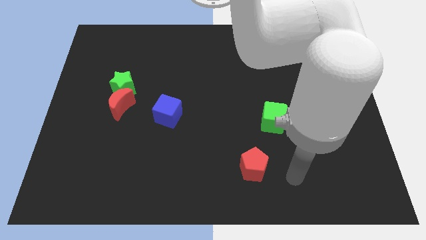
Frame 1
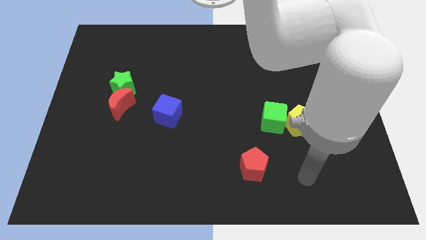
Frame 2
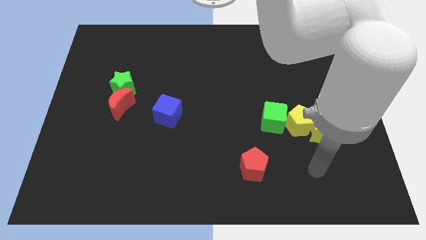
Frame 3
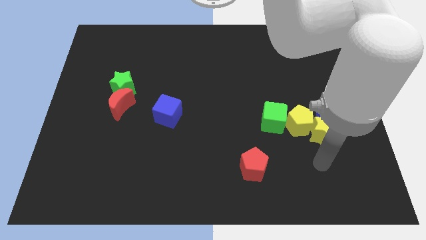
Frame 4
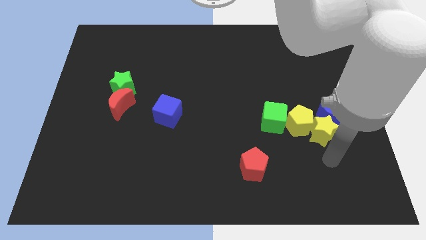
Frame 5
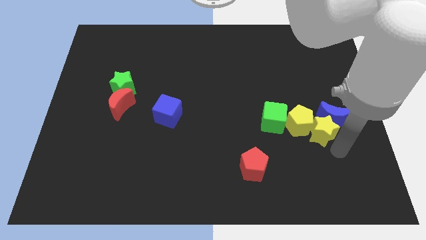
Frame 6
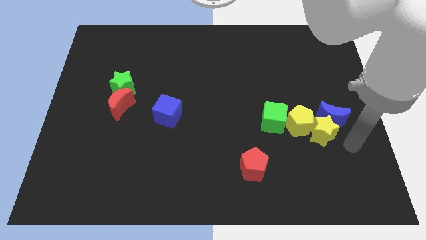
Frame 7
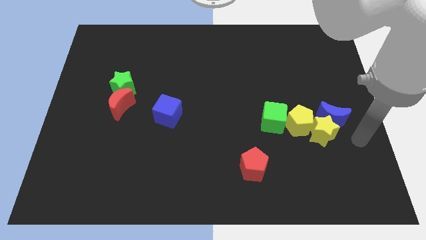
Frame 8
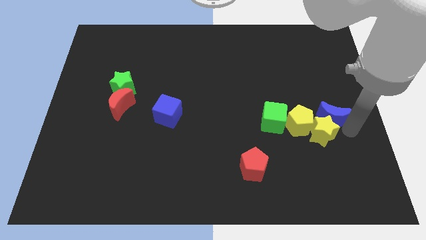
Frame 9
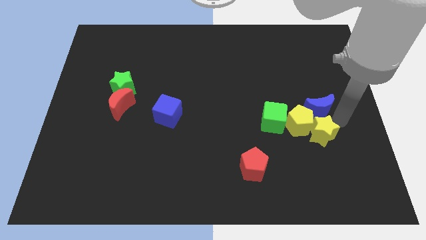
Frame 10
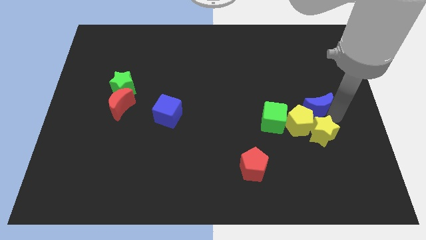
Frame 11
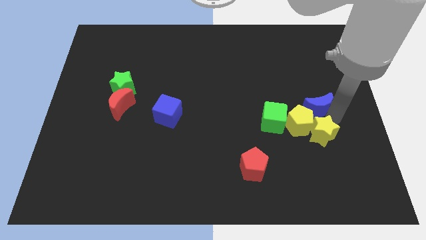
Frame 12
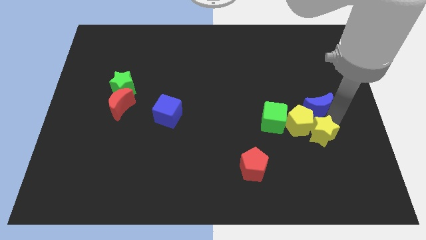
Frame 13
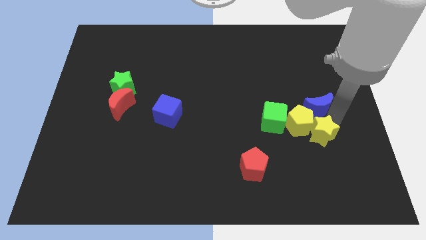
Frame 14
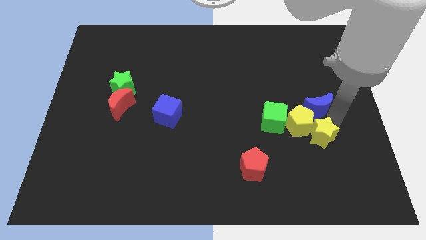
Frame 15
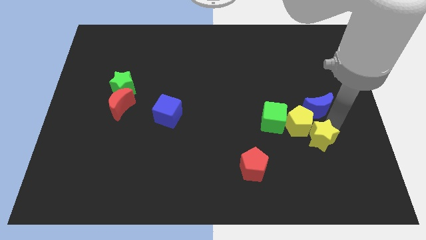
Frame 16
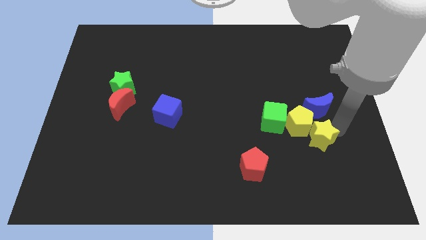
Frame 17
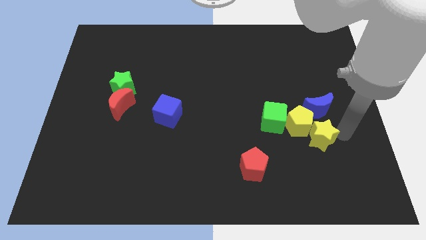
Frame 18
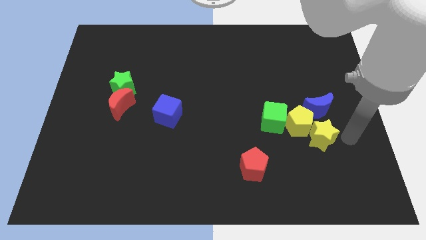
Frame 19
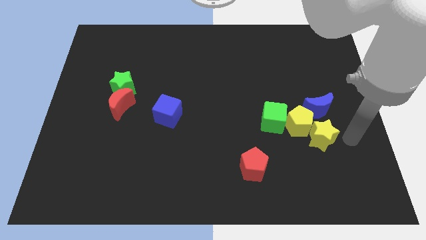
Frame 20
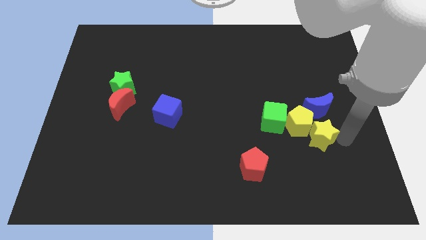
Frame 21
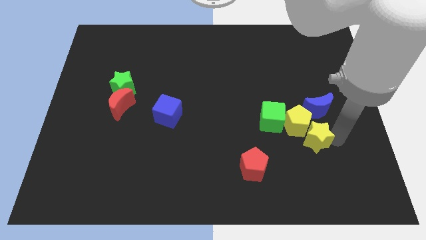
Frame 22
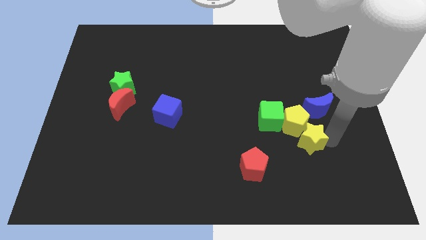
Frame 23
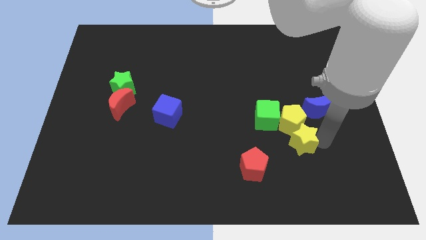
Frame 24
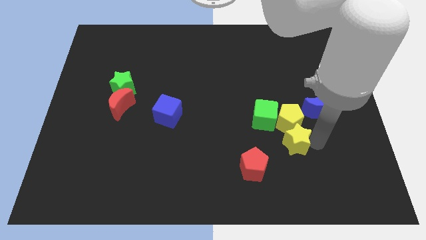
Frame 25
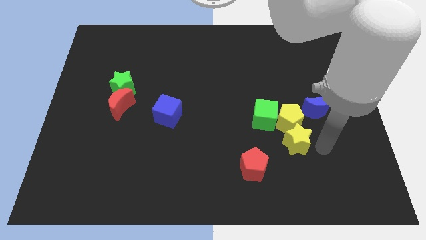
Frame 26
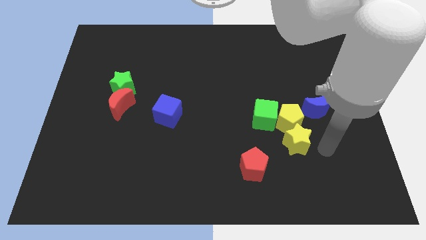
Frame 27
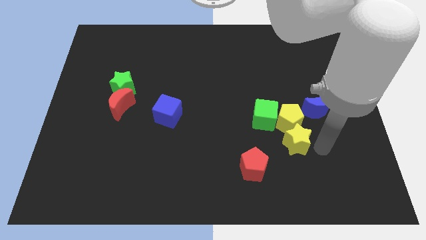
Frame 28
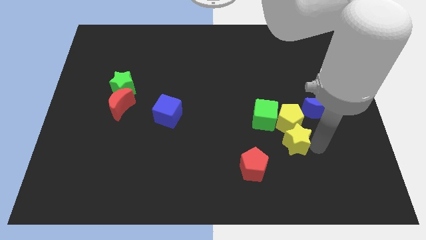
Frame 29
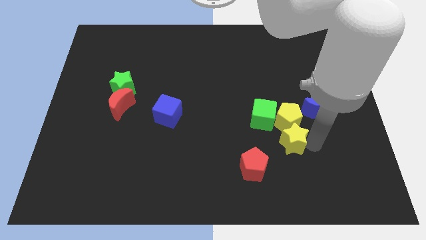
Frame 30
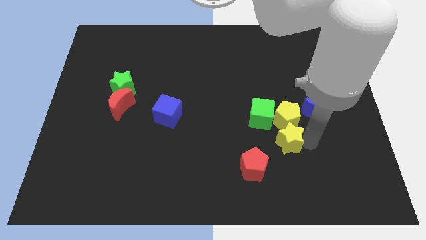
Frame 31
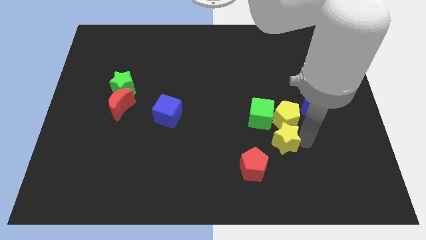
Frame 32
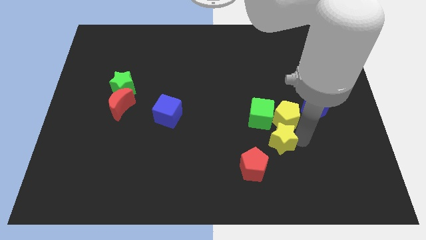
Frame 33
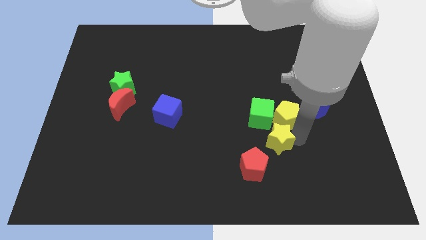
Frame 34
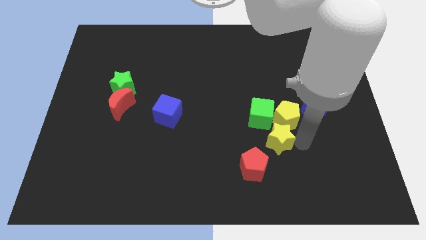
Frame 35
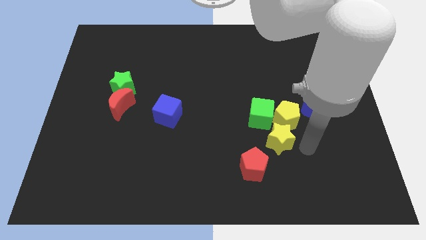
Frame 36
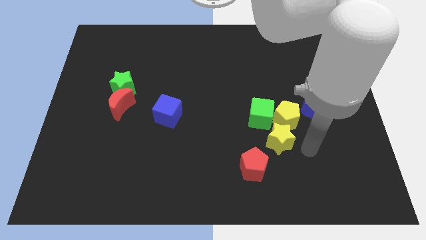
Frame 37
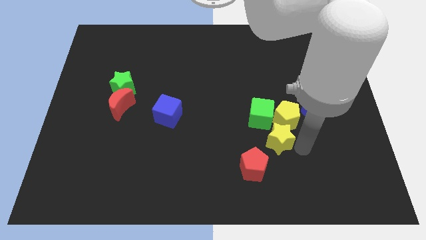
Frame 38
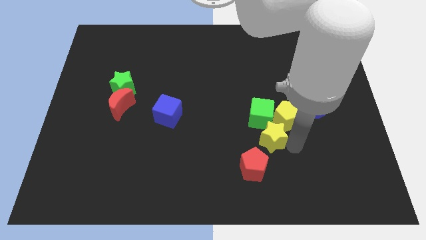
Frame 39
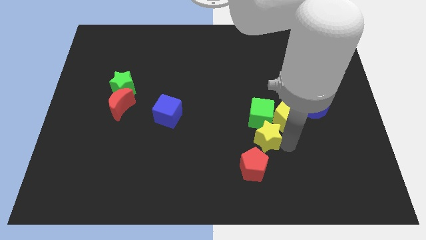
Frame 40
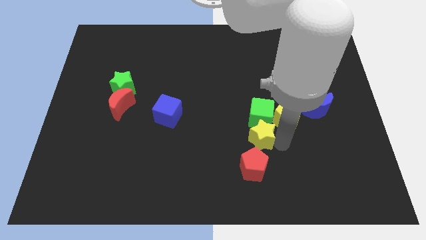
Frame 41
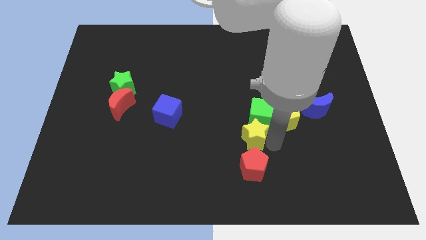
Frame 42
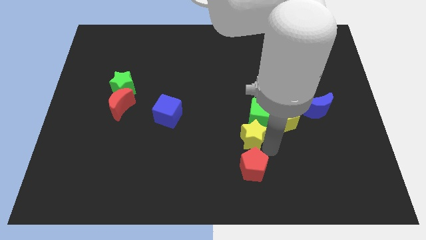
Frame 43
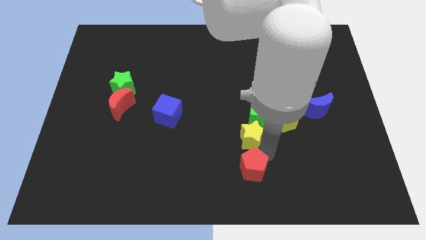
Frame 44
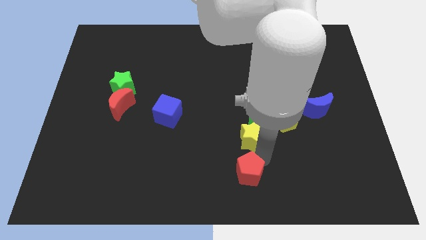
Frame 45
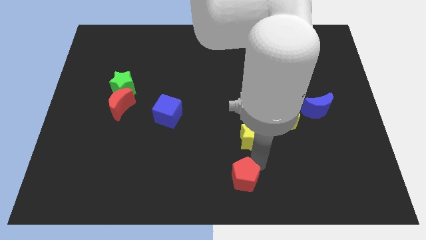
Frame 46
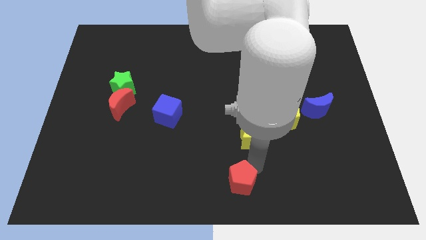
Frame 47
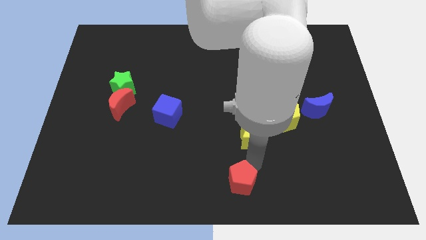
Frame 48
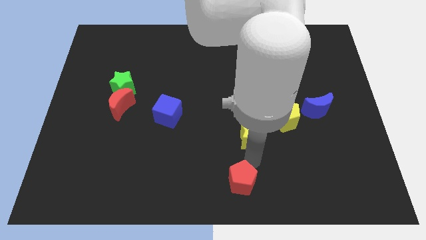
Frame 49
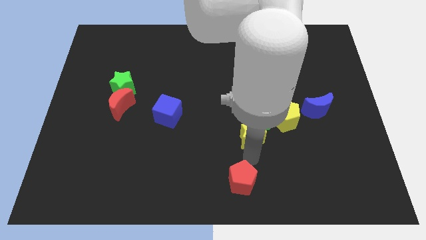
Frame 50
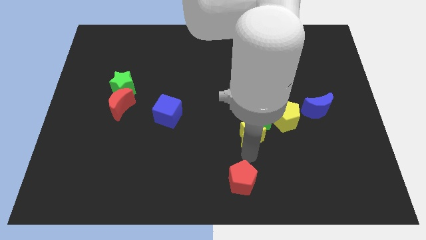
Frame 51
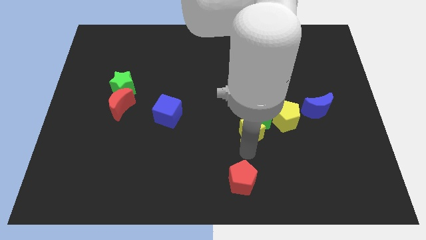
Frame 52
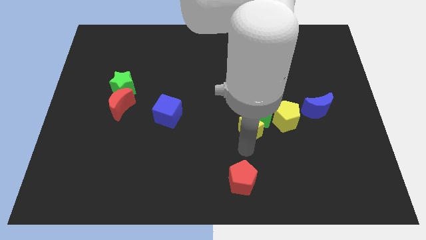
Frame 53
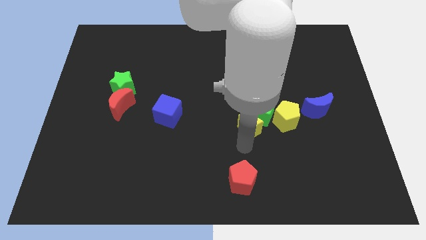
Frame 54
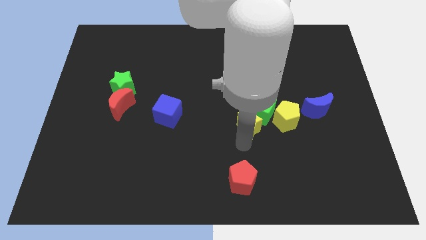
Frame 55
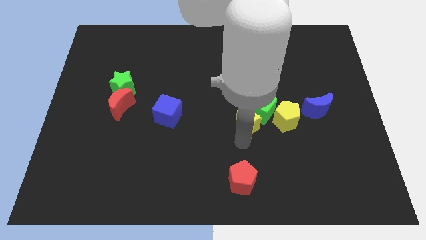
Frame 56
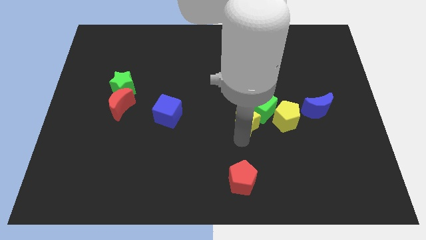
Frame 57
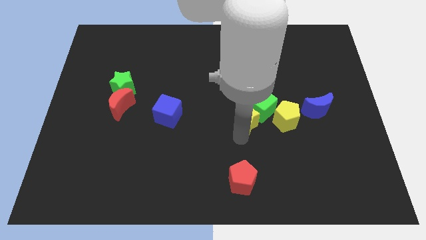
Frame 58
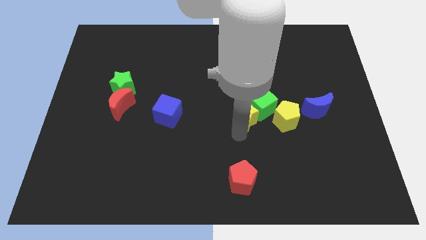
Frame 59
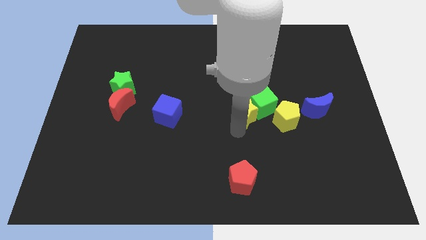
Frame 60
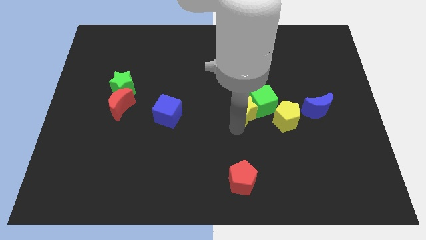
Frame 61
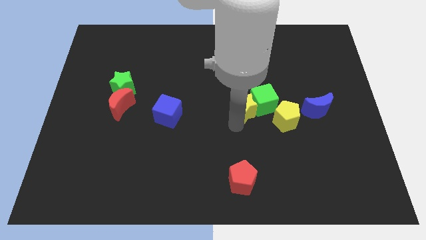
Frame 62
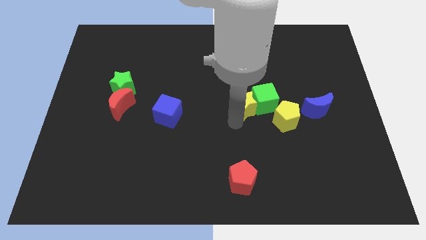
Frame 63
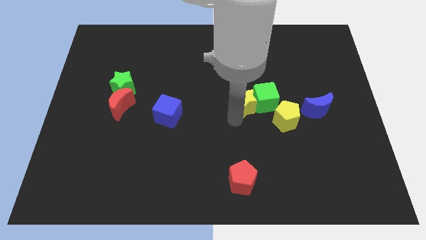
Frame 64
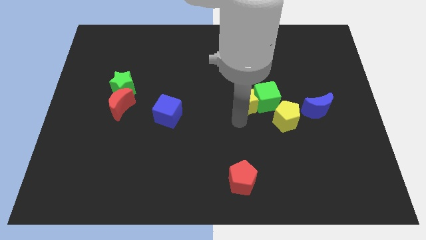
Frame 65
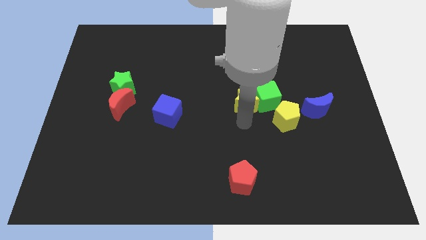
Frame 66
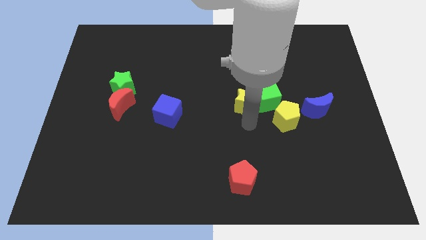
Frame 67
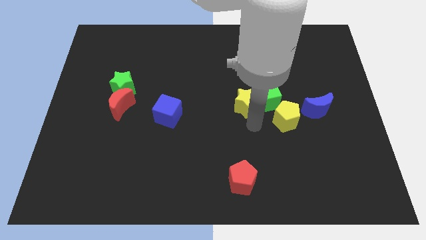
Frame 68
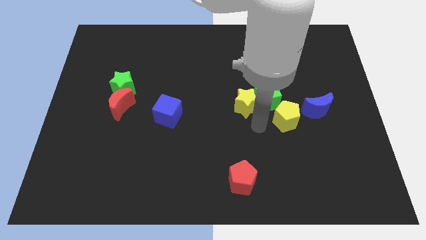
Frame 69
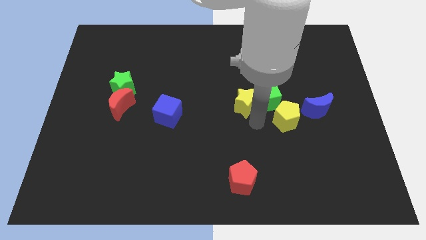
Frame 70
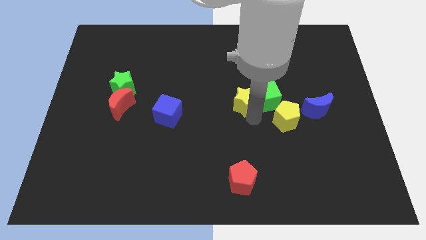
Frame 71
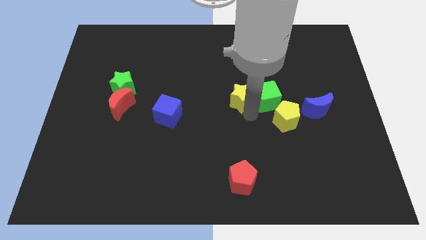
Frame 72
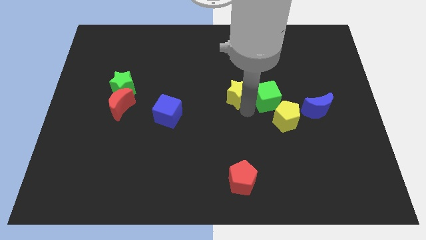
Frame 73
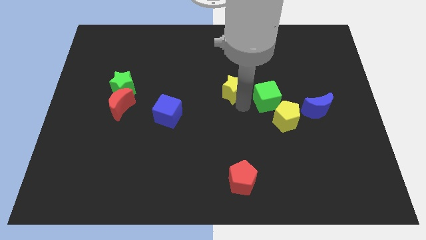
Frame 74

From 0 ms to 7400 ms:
slide the yellow star upwards and to the left diagonally

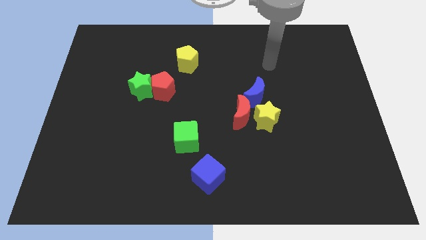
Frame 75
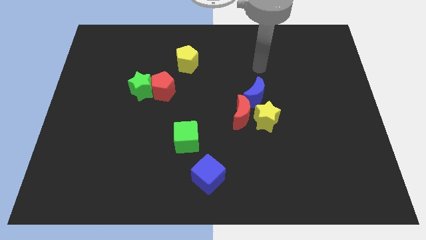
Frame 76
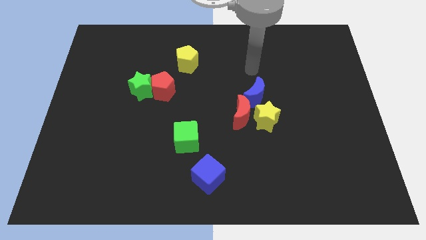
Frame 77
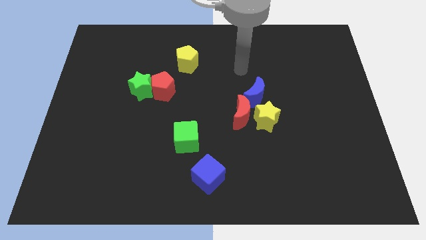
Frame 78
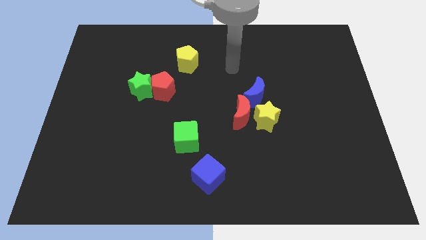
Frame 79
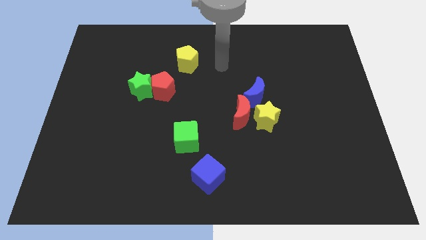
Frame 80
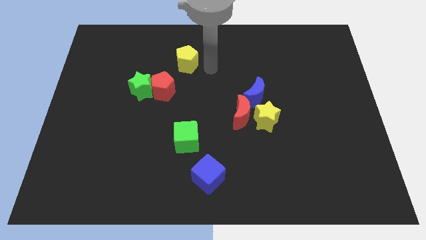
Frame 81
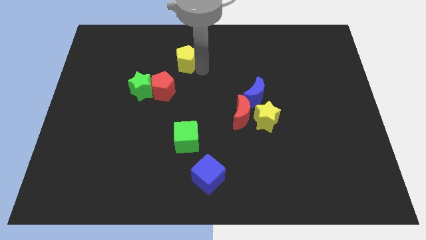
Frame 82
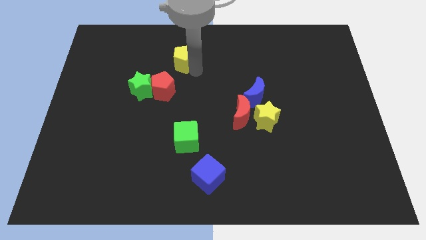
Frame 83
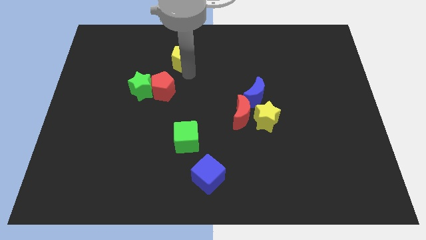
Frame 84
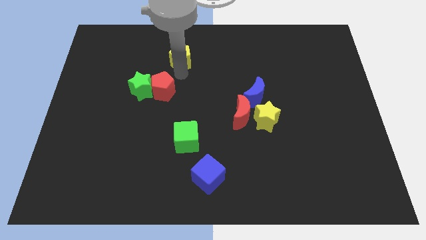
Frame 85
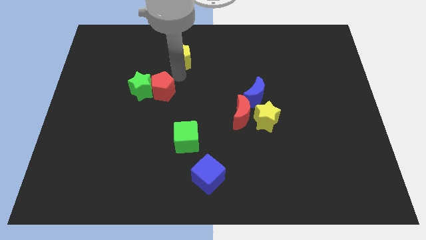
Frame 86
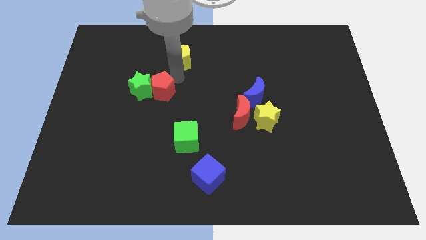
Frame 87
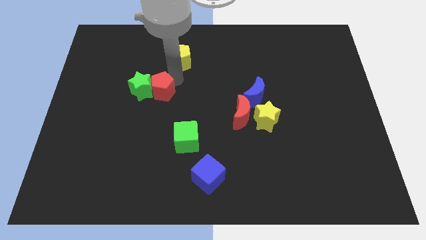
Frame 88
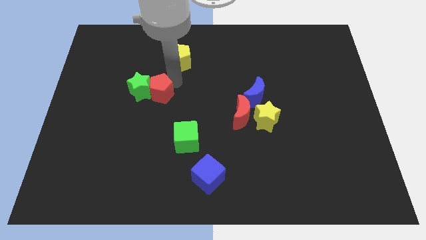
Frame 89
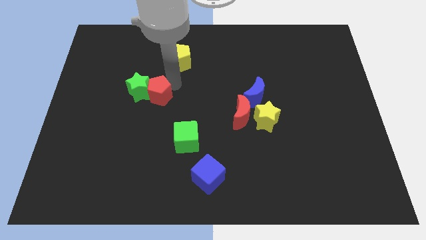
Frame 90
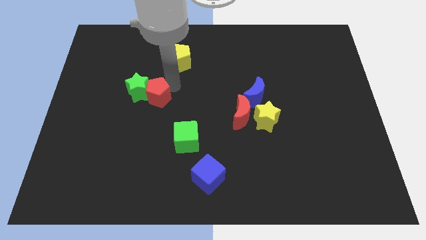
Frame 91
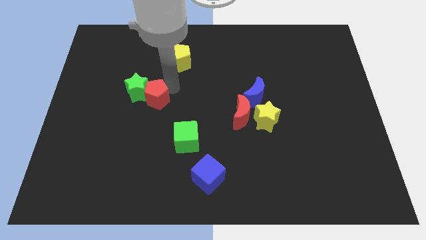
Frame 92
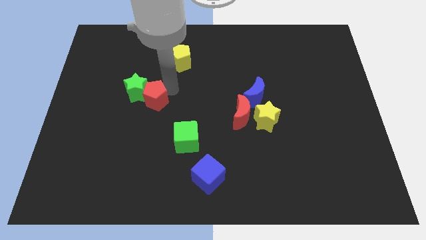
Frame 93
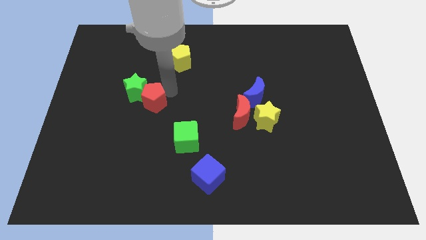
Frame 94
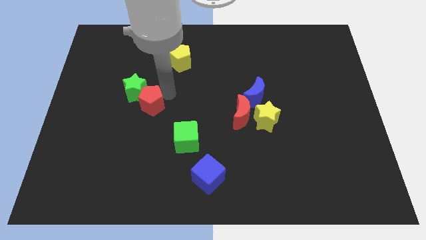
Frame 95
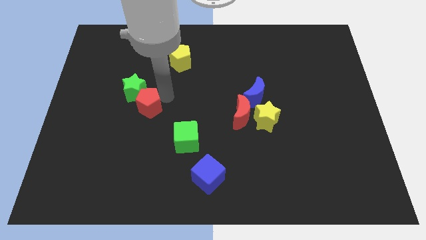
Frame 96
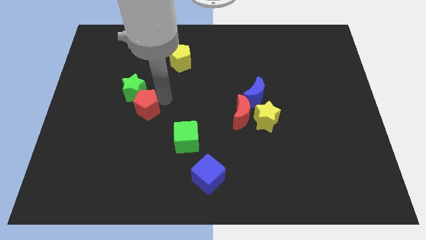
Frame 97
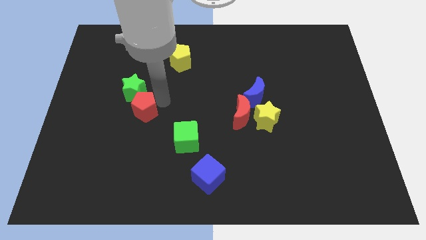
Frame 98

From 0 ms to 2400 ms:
slightly move the red pentagon downwards and then left
